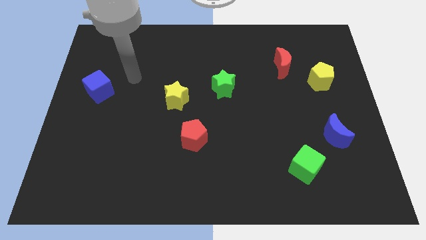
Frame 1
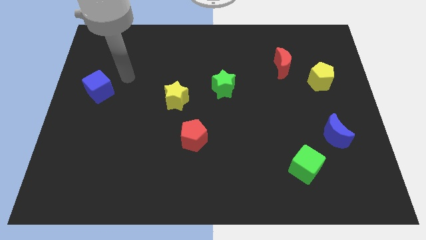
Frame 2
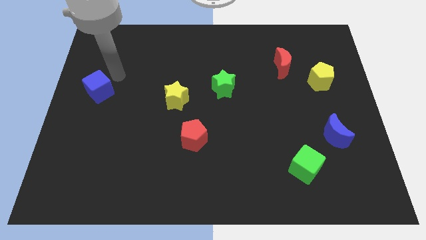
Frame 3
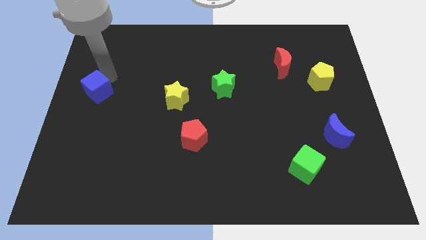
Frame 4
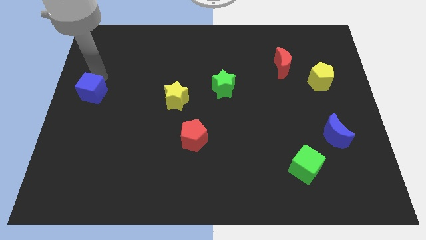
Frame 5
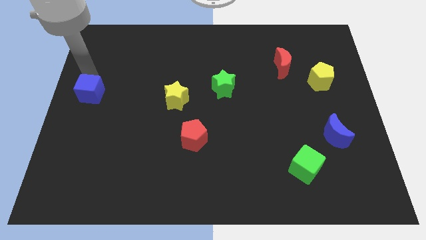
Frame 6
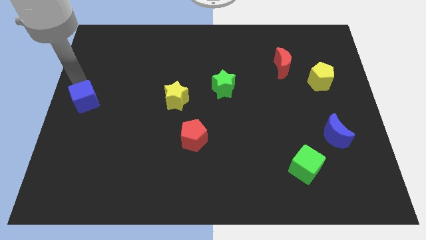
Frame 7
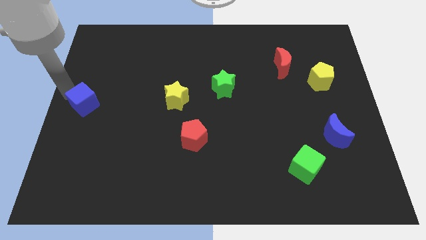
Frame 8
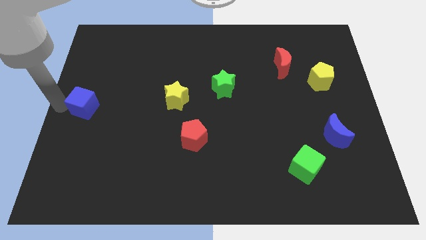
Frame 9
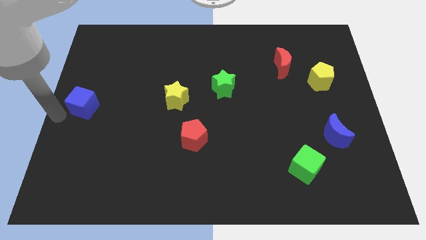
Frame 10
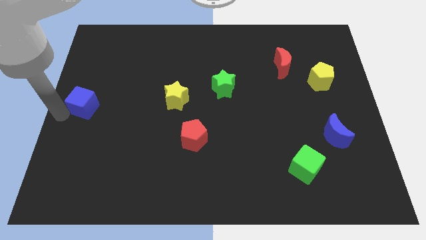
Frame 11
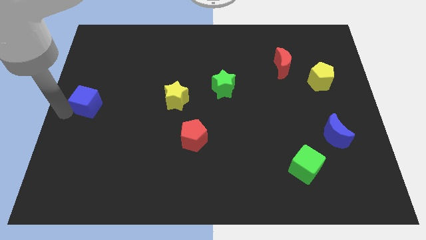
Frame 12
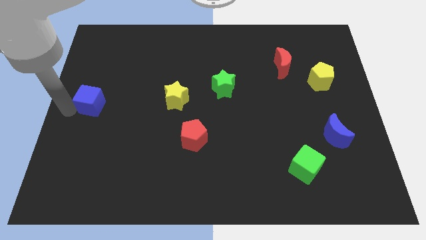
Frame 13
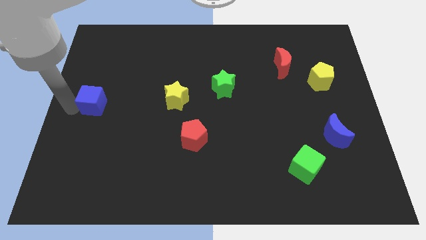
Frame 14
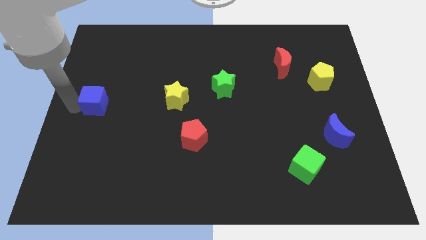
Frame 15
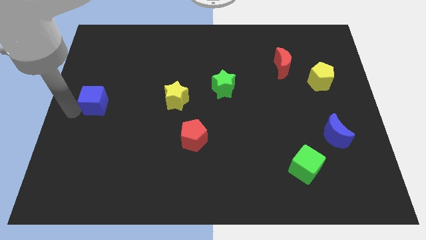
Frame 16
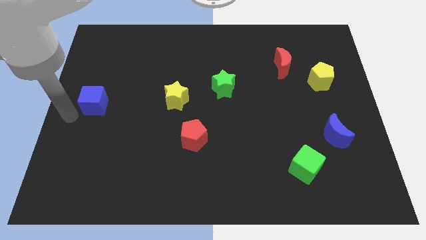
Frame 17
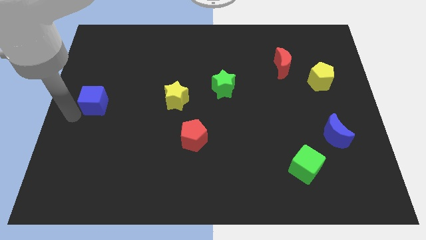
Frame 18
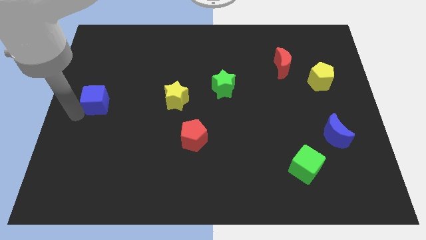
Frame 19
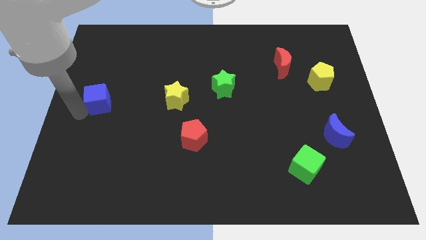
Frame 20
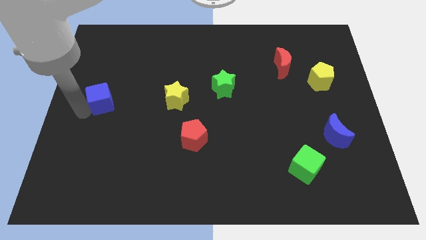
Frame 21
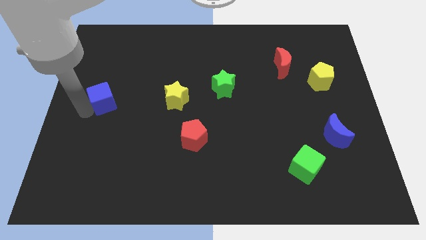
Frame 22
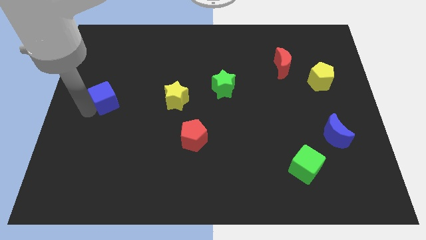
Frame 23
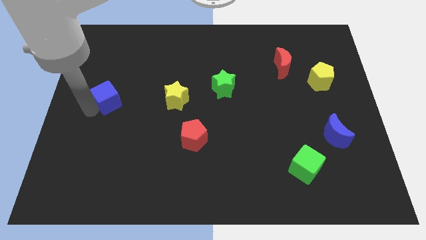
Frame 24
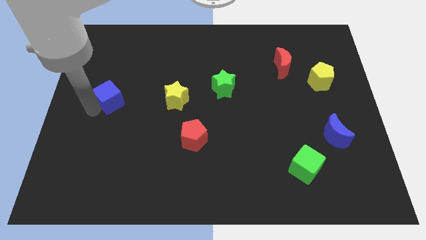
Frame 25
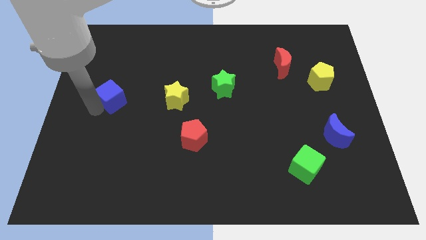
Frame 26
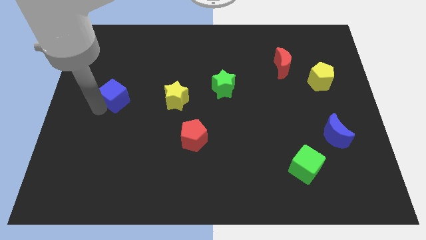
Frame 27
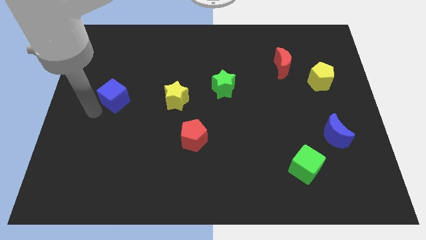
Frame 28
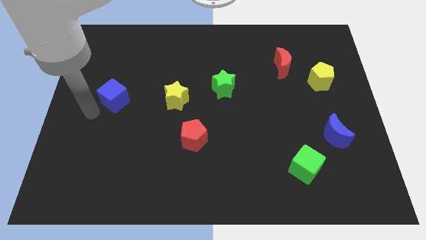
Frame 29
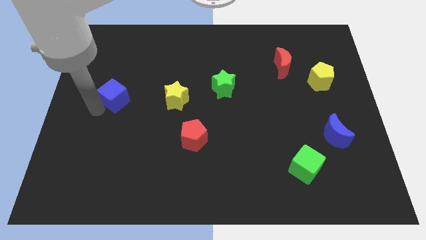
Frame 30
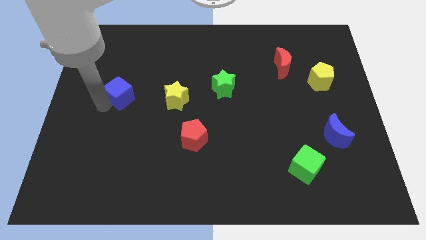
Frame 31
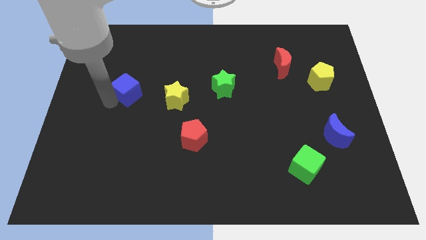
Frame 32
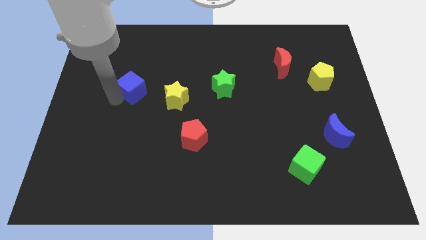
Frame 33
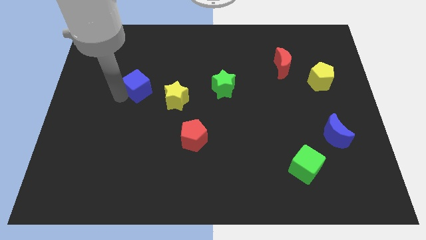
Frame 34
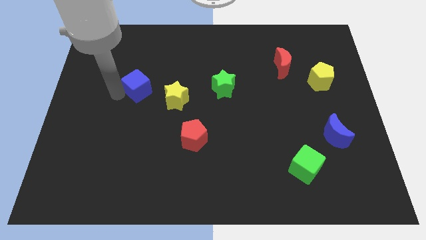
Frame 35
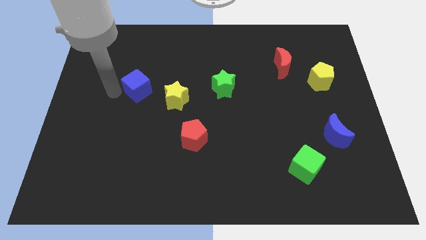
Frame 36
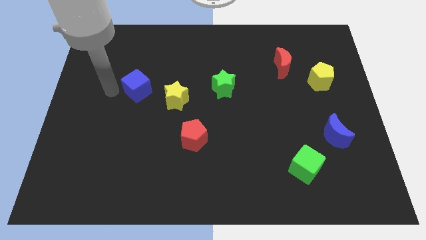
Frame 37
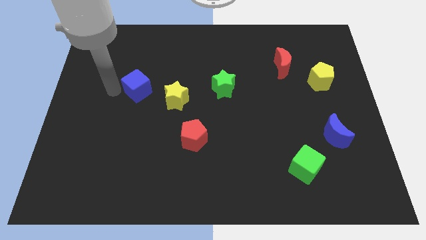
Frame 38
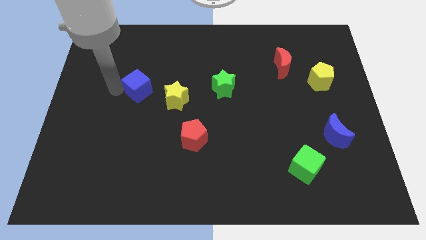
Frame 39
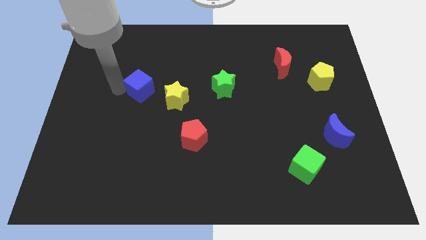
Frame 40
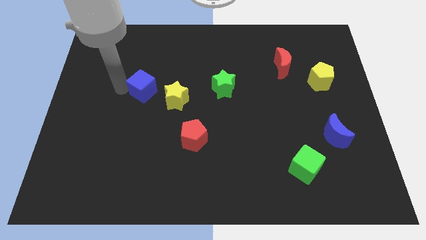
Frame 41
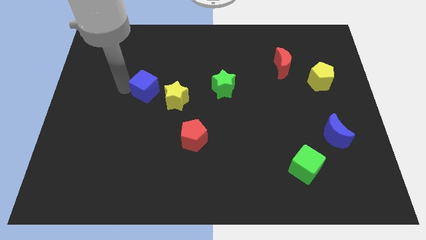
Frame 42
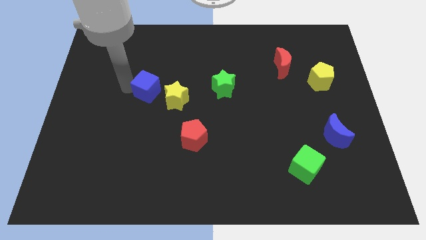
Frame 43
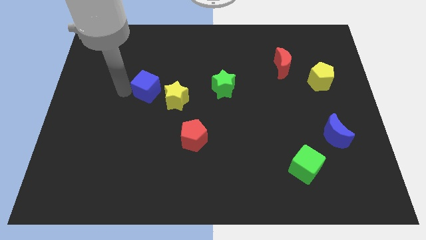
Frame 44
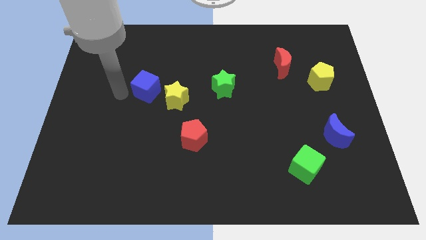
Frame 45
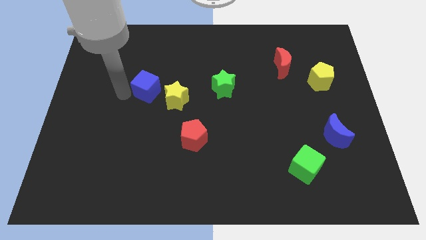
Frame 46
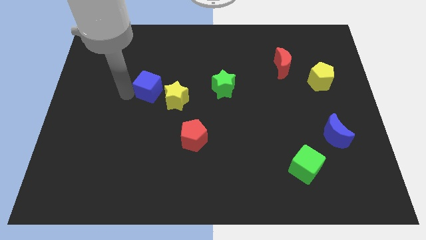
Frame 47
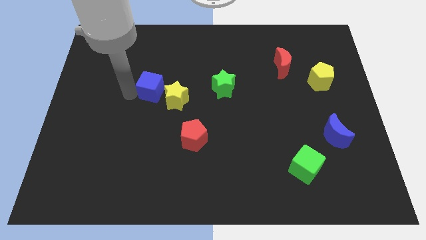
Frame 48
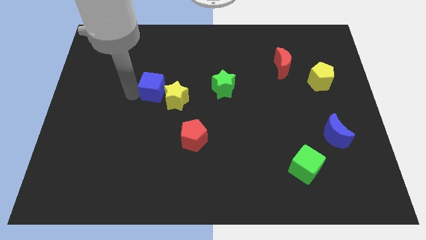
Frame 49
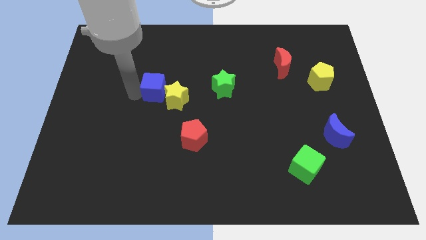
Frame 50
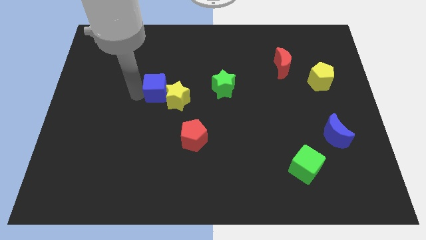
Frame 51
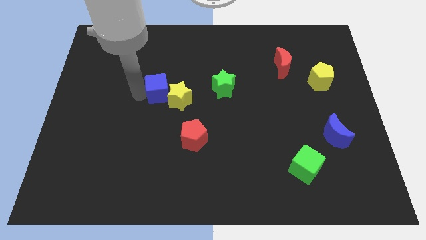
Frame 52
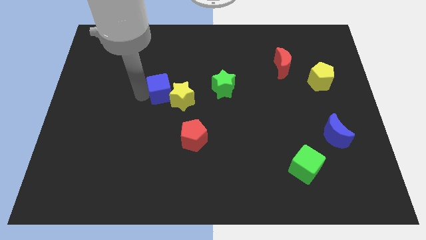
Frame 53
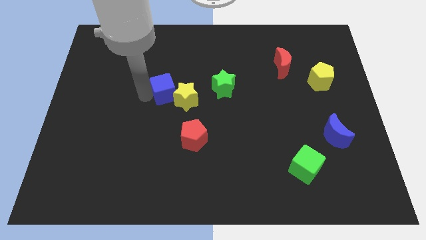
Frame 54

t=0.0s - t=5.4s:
push the blue cube to the middle of the board

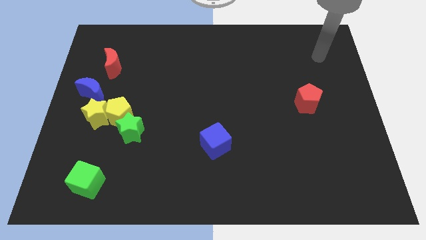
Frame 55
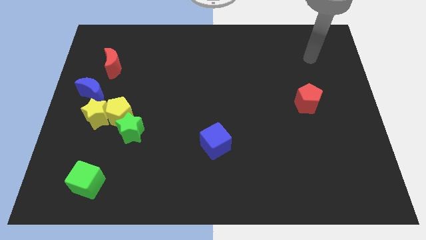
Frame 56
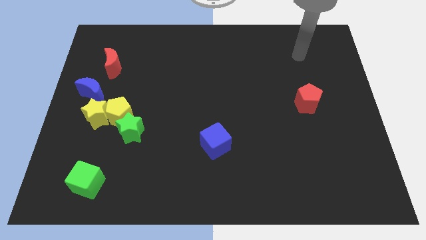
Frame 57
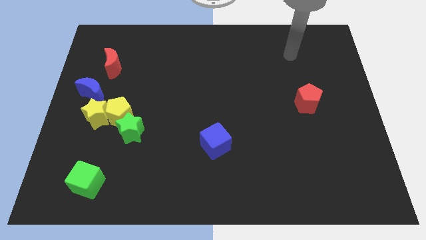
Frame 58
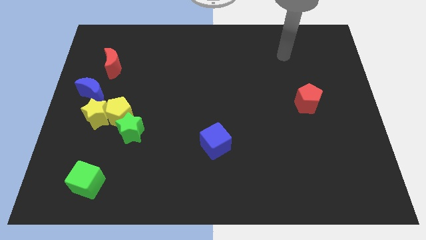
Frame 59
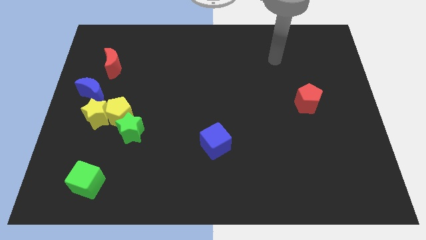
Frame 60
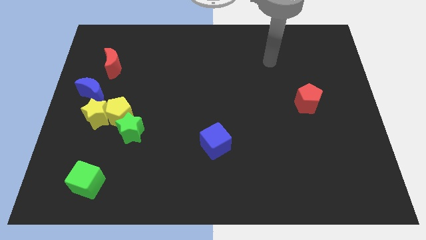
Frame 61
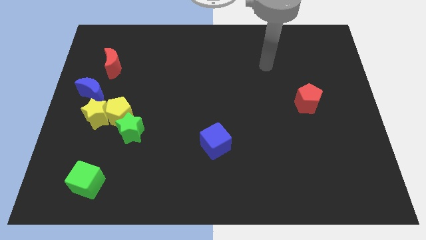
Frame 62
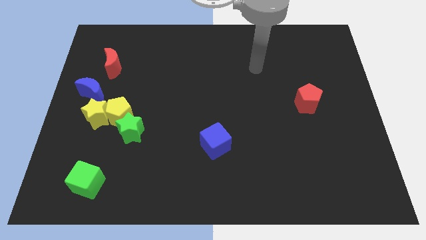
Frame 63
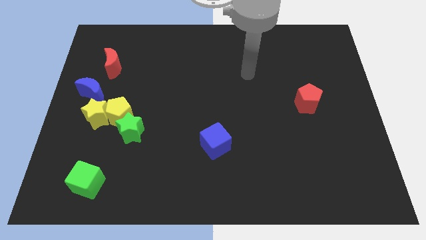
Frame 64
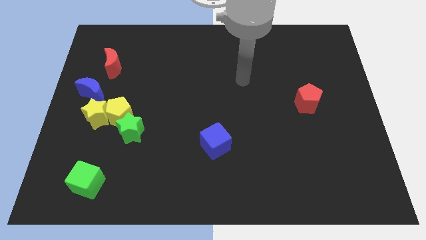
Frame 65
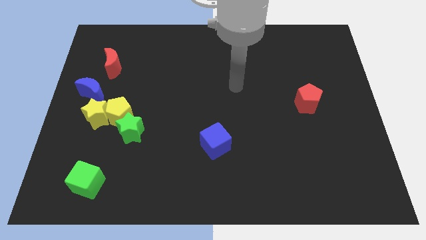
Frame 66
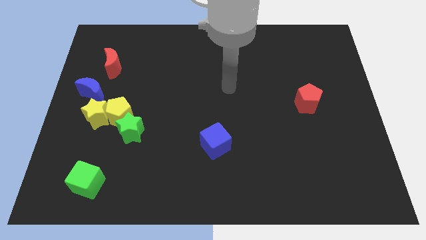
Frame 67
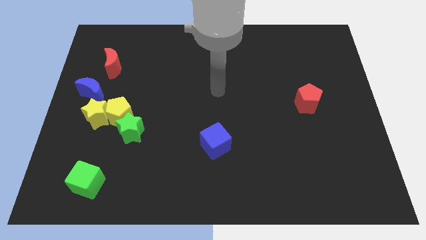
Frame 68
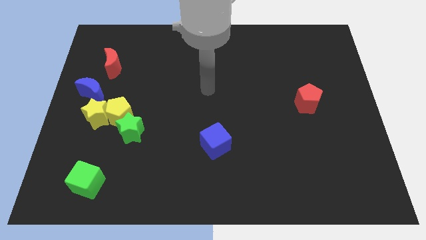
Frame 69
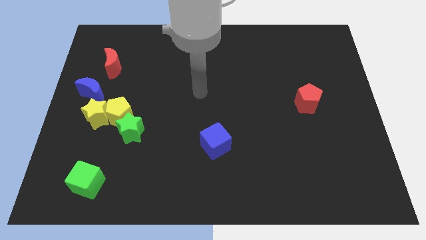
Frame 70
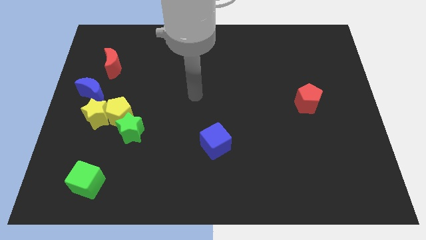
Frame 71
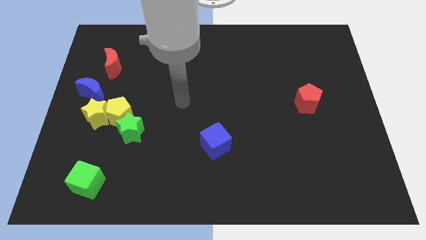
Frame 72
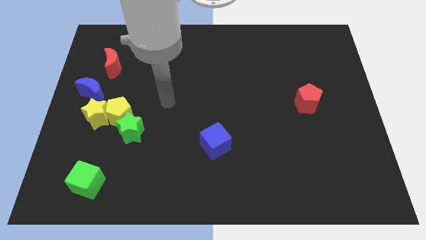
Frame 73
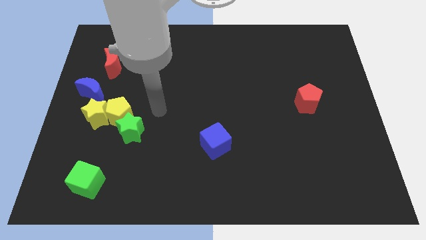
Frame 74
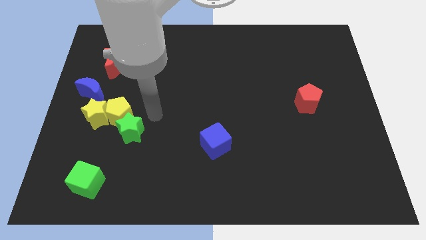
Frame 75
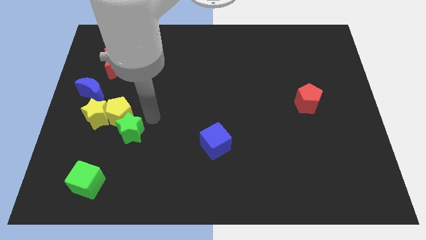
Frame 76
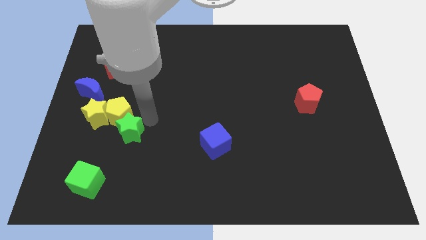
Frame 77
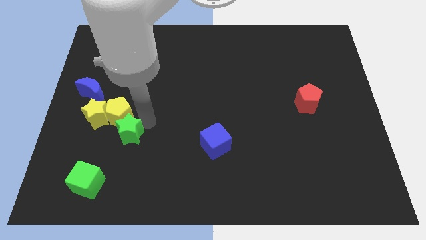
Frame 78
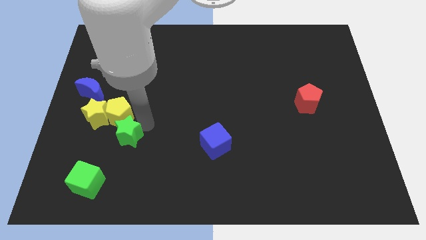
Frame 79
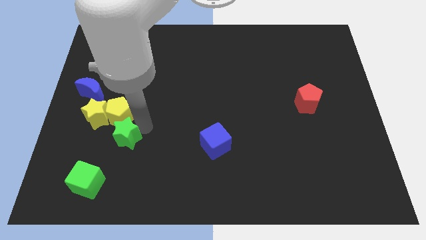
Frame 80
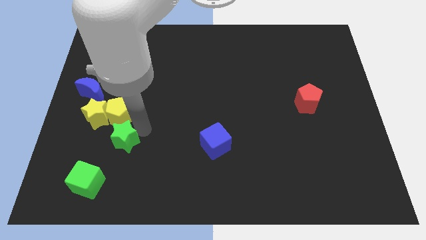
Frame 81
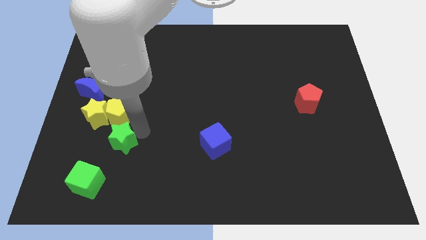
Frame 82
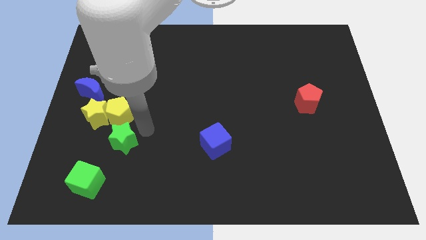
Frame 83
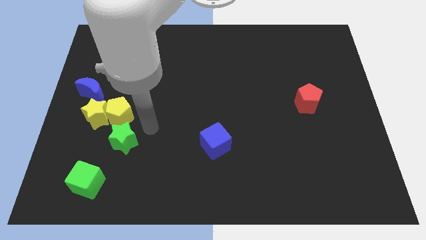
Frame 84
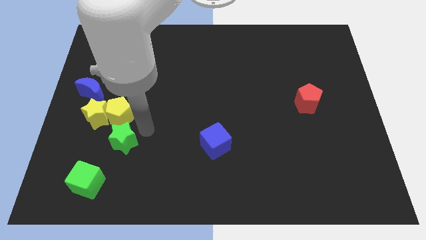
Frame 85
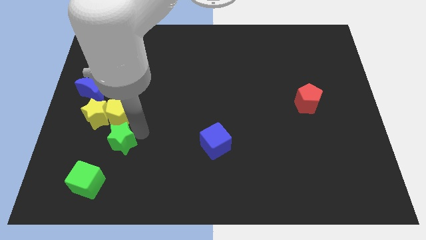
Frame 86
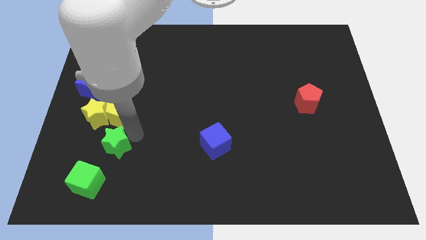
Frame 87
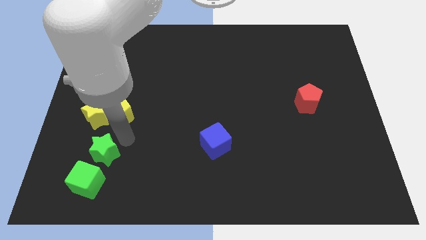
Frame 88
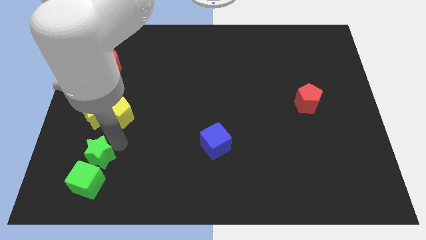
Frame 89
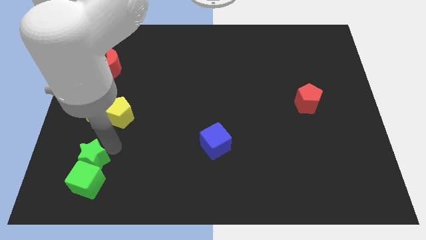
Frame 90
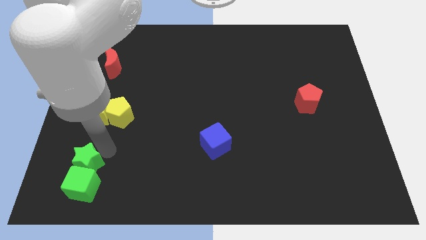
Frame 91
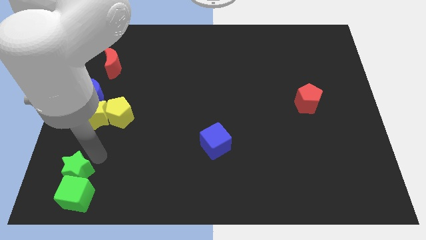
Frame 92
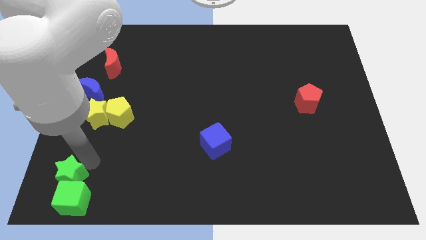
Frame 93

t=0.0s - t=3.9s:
move the green star to the bottom left corner
